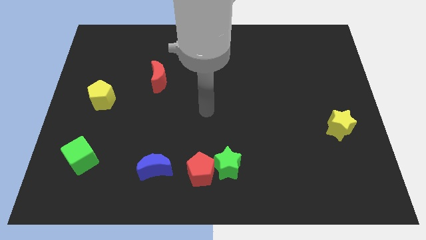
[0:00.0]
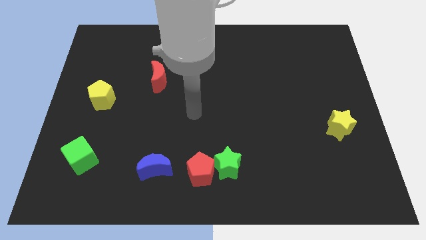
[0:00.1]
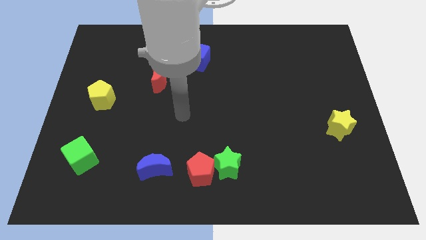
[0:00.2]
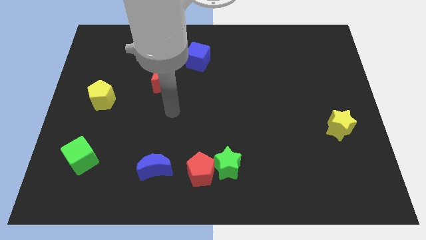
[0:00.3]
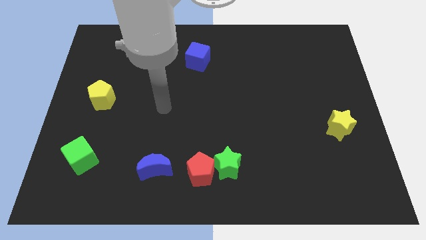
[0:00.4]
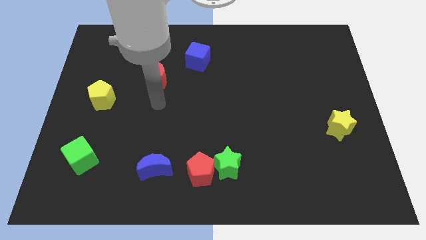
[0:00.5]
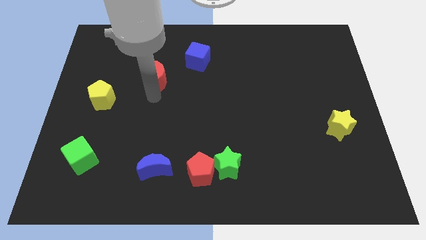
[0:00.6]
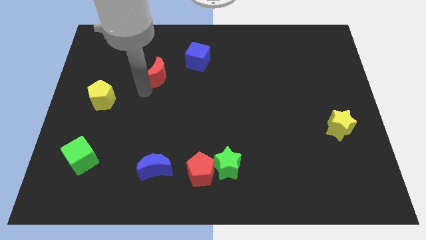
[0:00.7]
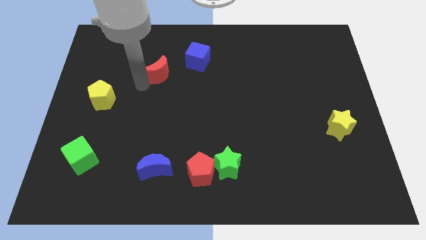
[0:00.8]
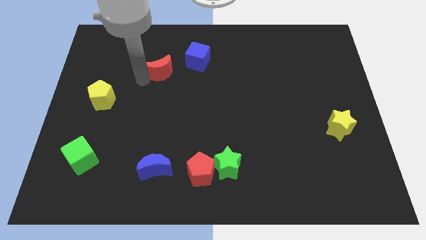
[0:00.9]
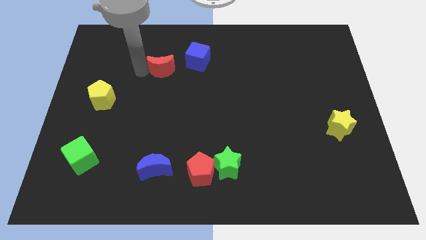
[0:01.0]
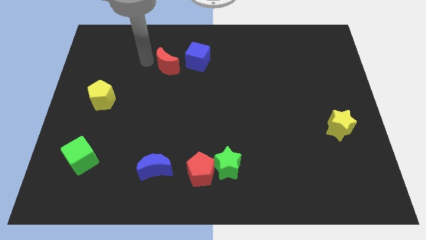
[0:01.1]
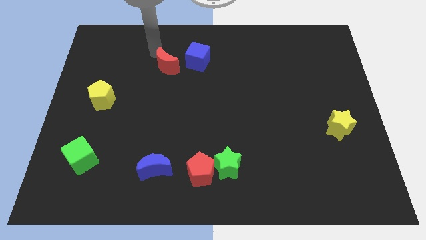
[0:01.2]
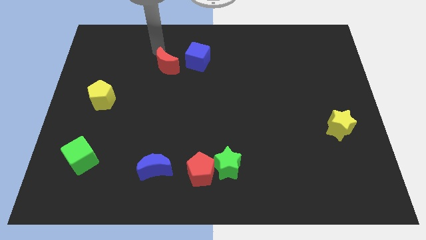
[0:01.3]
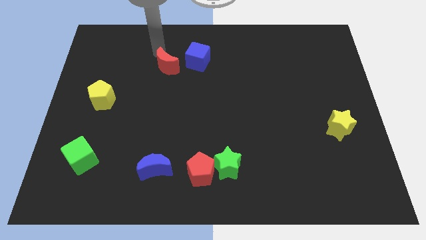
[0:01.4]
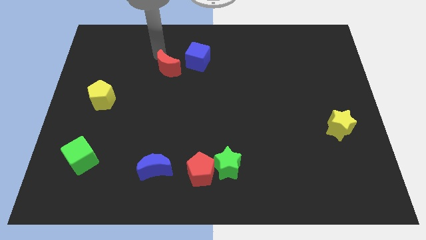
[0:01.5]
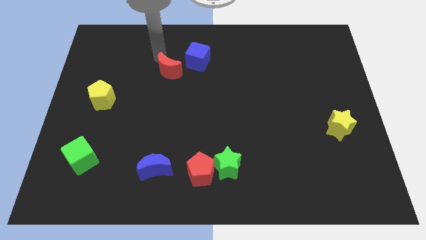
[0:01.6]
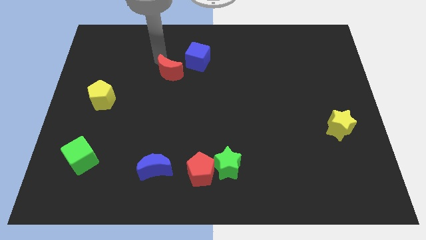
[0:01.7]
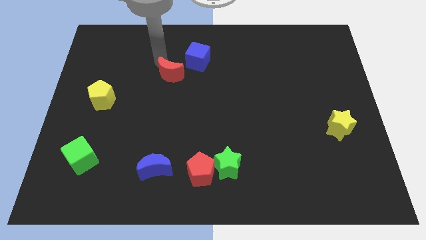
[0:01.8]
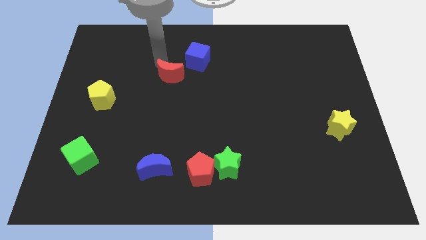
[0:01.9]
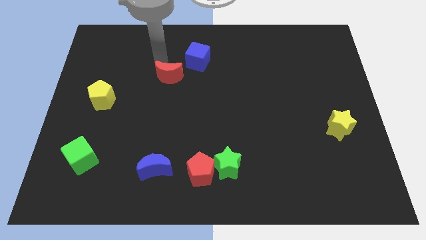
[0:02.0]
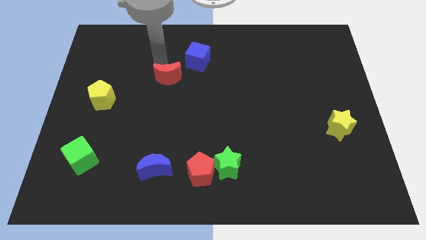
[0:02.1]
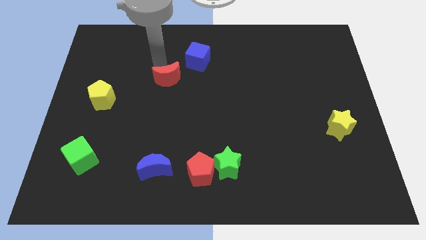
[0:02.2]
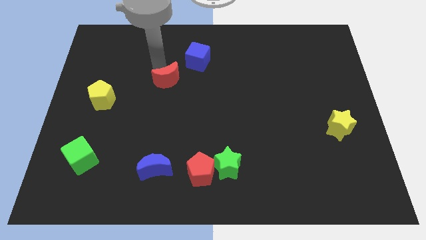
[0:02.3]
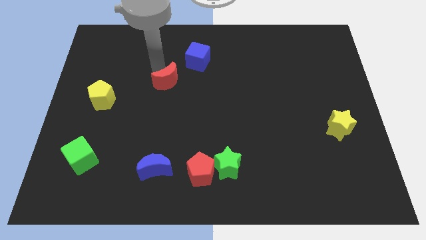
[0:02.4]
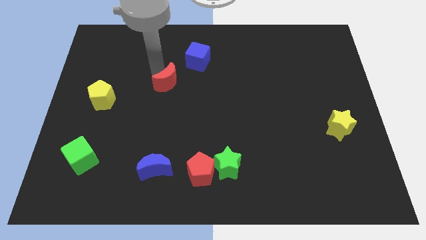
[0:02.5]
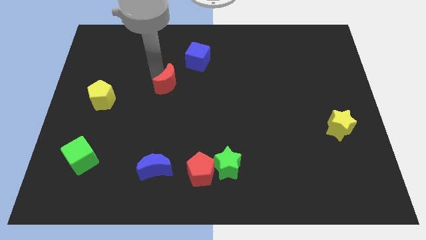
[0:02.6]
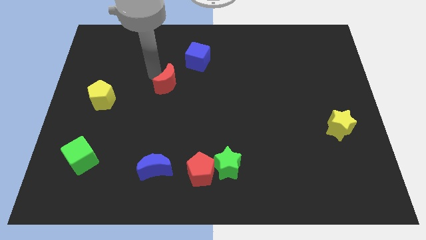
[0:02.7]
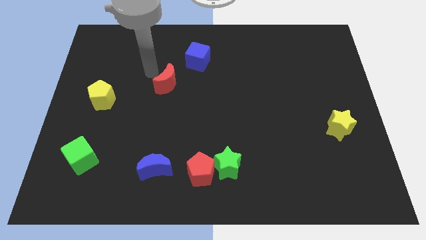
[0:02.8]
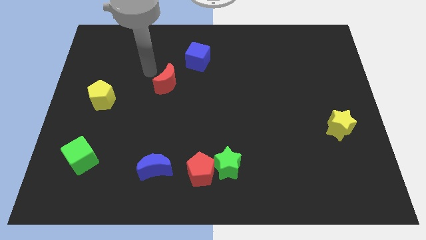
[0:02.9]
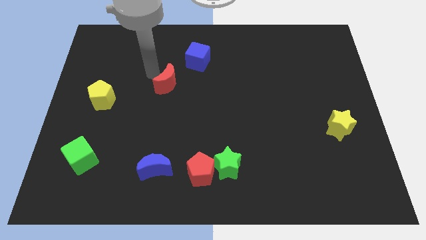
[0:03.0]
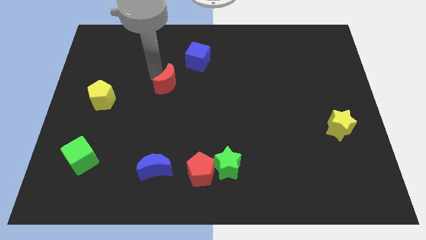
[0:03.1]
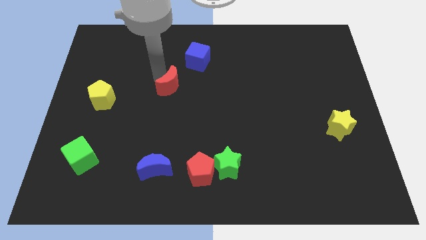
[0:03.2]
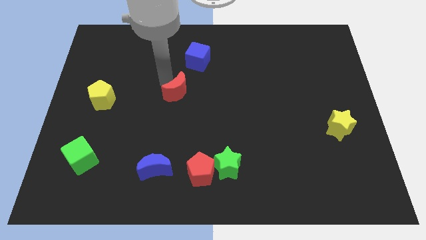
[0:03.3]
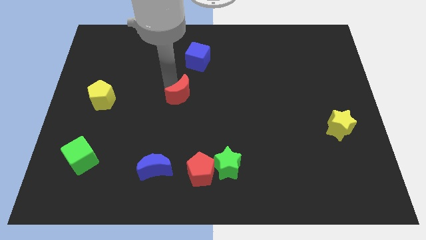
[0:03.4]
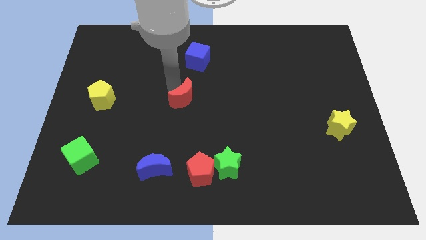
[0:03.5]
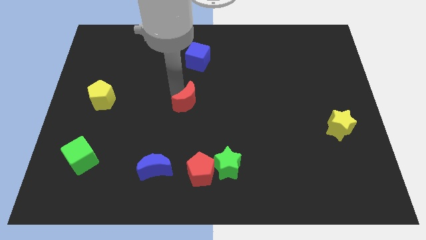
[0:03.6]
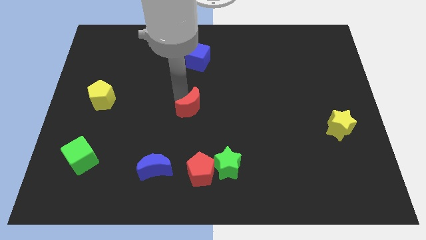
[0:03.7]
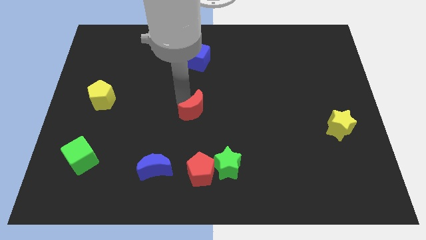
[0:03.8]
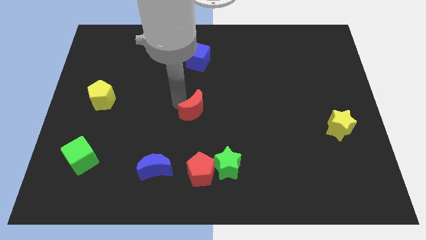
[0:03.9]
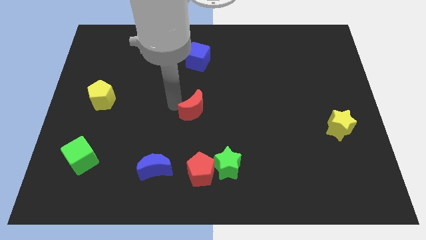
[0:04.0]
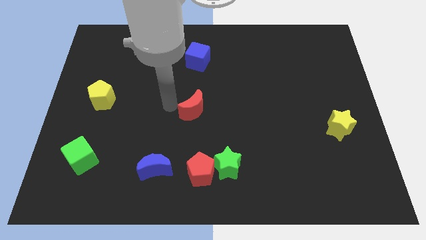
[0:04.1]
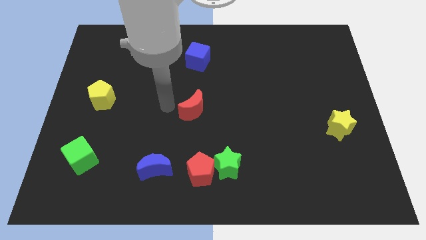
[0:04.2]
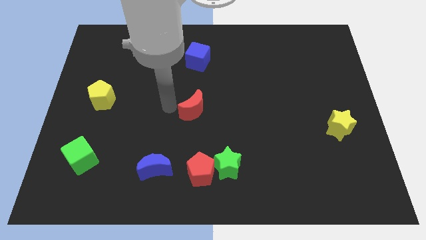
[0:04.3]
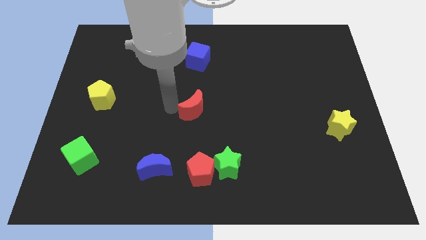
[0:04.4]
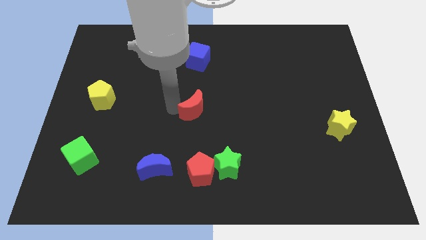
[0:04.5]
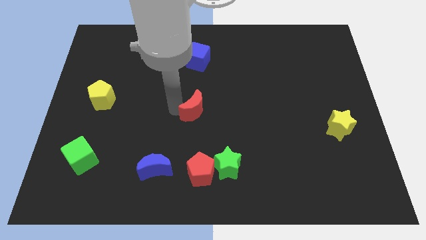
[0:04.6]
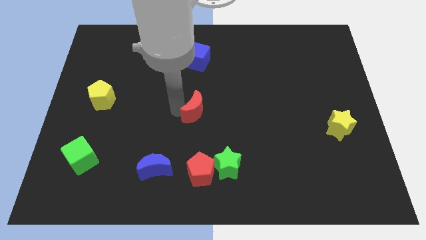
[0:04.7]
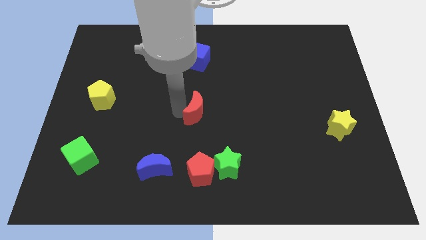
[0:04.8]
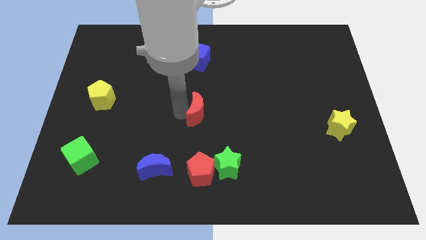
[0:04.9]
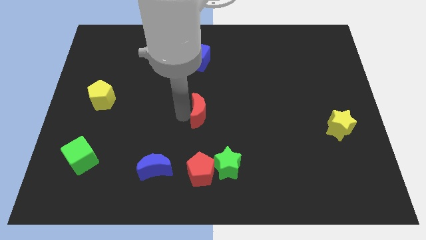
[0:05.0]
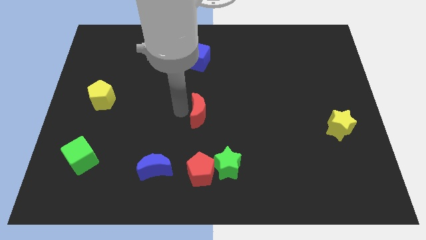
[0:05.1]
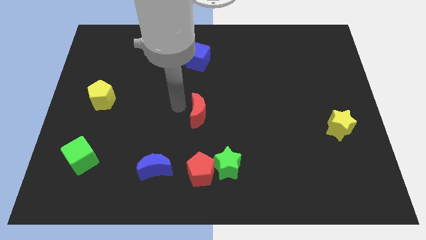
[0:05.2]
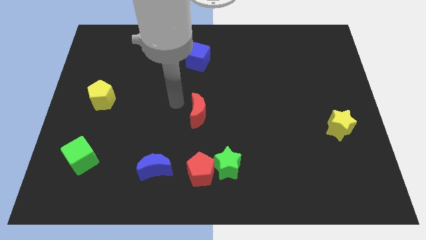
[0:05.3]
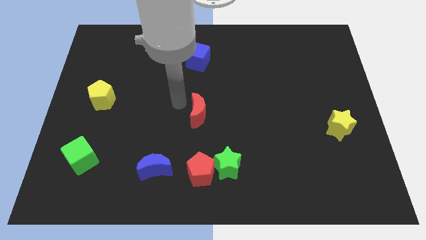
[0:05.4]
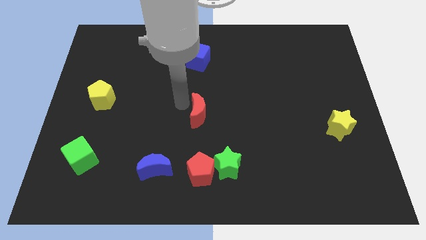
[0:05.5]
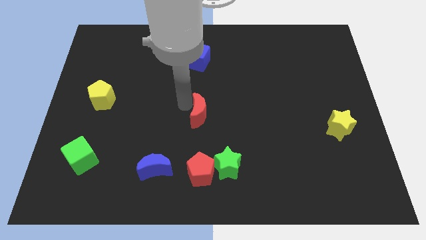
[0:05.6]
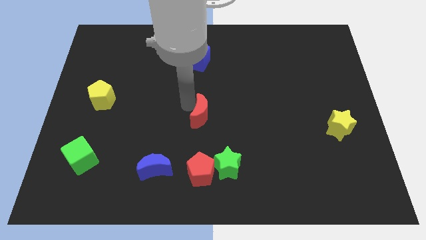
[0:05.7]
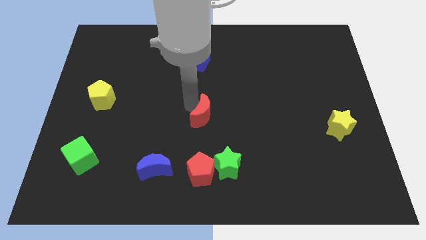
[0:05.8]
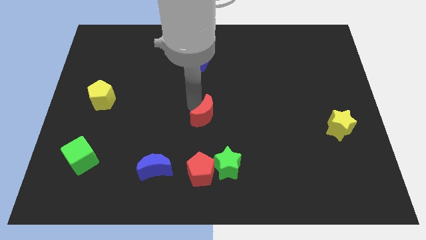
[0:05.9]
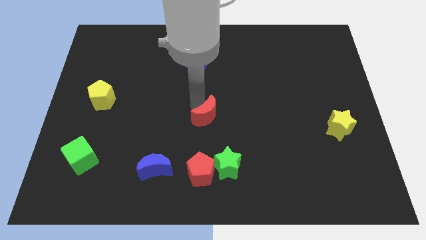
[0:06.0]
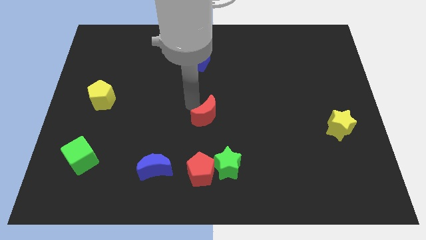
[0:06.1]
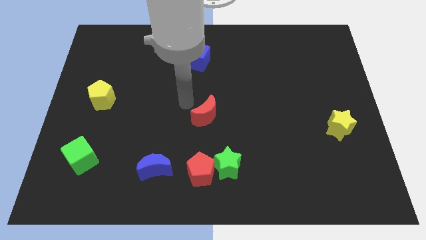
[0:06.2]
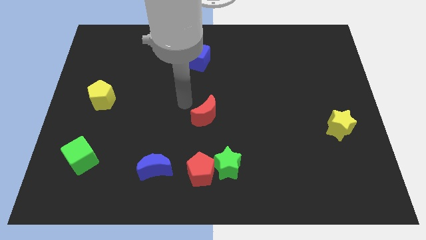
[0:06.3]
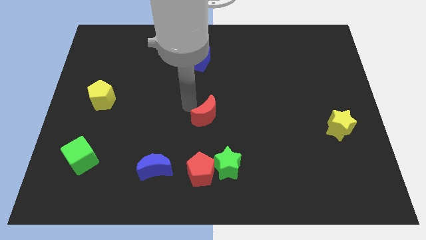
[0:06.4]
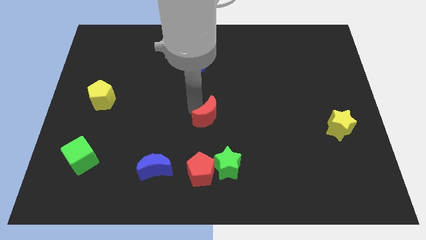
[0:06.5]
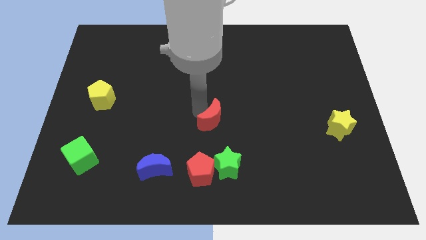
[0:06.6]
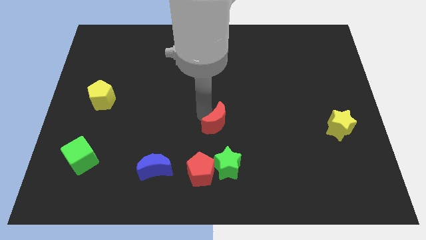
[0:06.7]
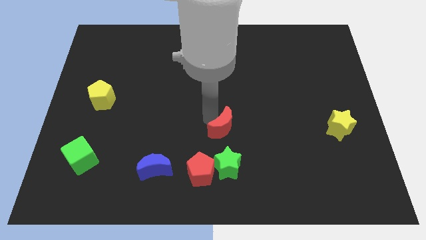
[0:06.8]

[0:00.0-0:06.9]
slide the red moon down and to the right diagonally

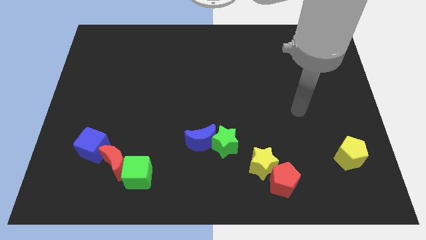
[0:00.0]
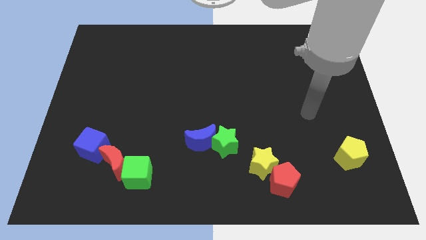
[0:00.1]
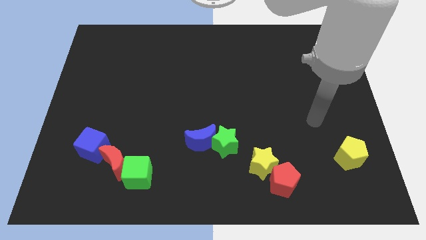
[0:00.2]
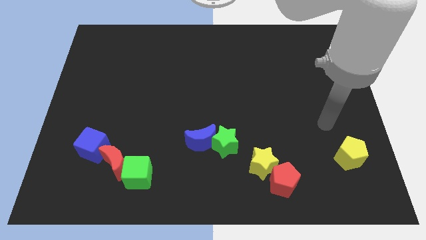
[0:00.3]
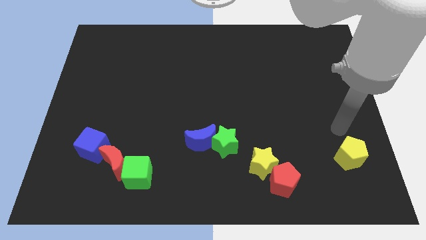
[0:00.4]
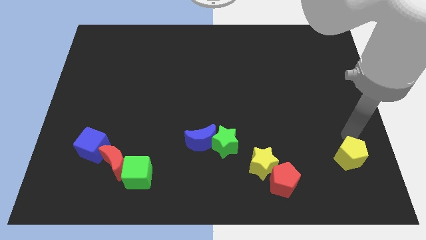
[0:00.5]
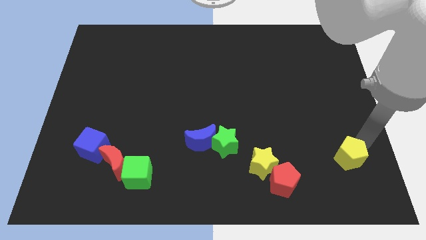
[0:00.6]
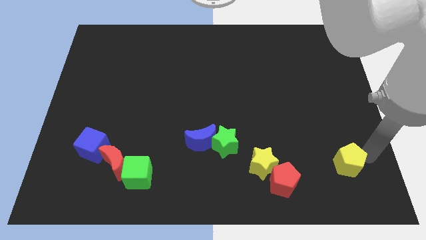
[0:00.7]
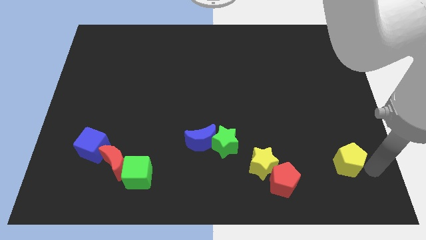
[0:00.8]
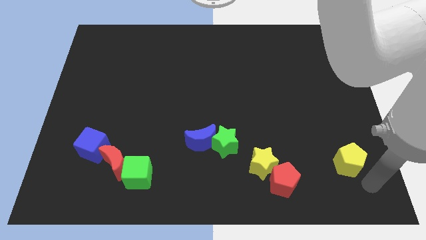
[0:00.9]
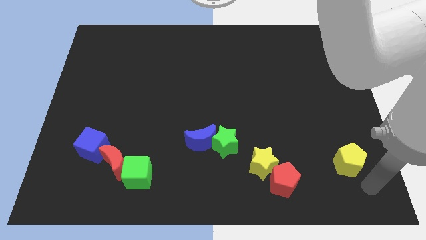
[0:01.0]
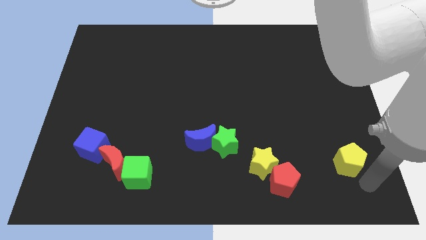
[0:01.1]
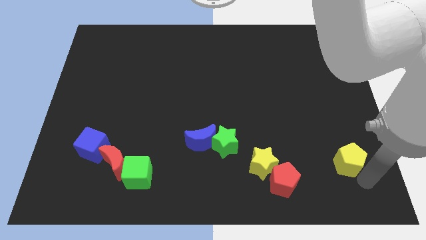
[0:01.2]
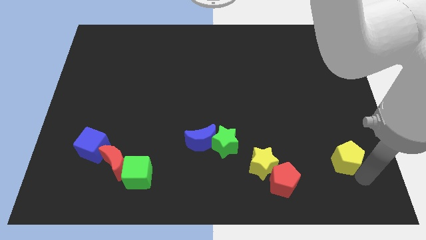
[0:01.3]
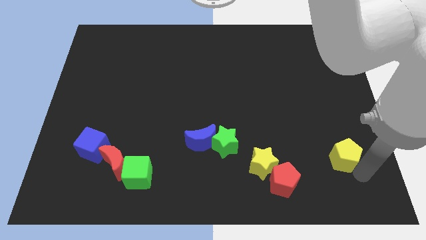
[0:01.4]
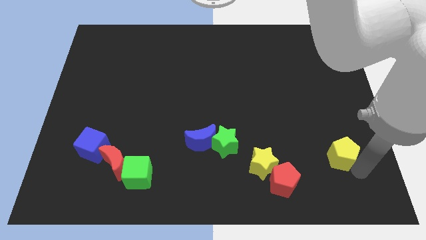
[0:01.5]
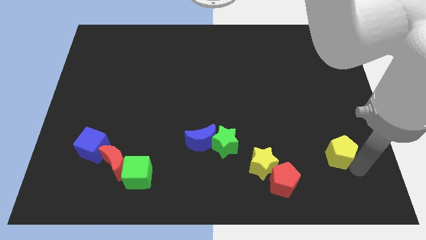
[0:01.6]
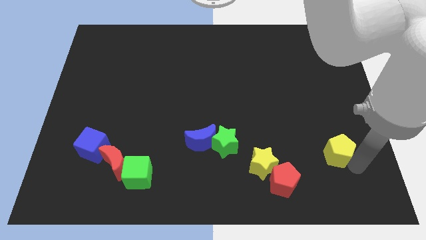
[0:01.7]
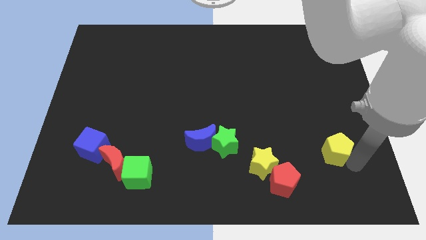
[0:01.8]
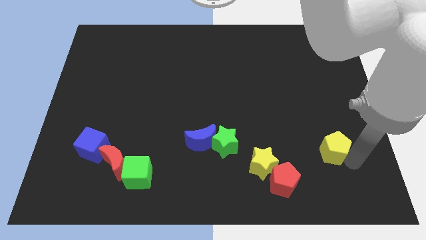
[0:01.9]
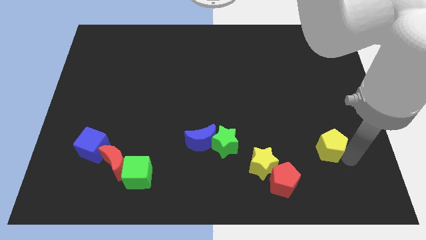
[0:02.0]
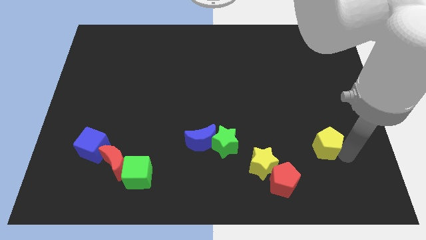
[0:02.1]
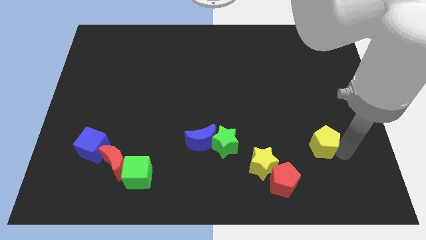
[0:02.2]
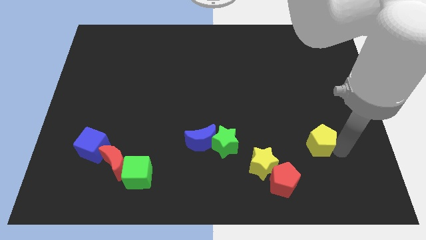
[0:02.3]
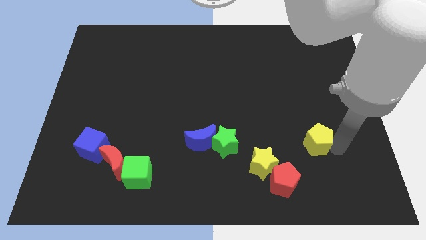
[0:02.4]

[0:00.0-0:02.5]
slightly push the yellow pentagon upwards and then to the left
